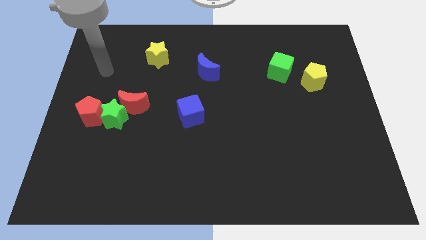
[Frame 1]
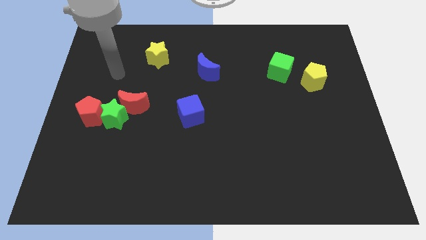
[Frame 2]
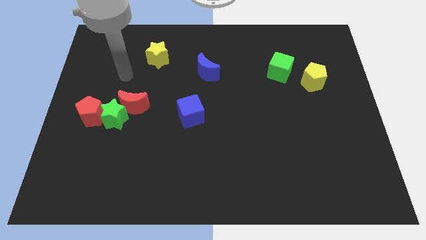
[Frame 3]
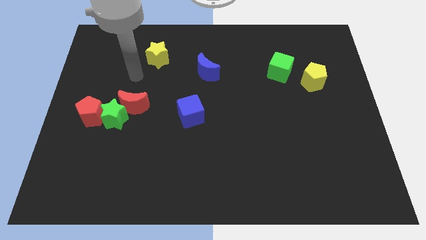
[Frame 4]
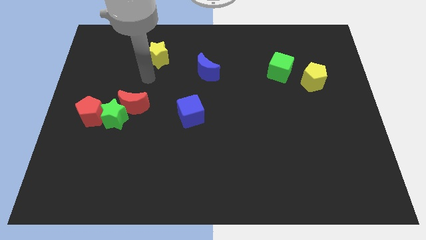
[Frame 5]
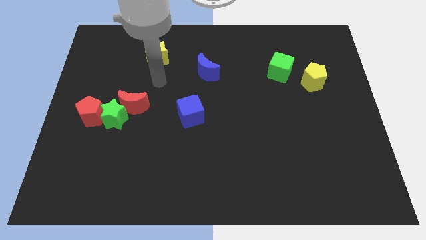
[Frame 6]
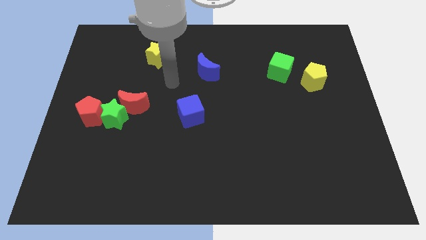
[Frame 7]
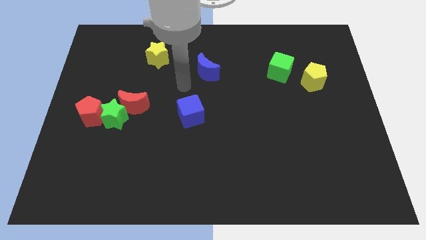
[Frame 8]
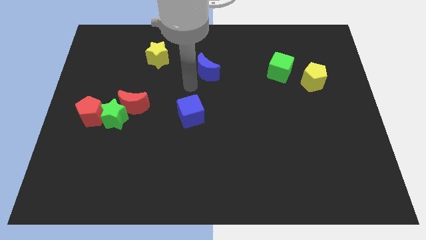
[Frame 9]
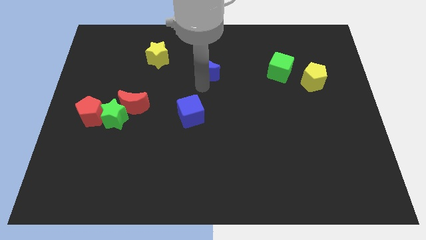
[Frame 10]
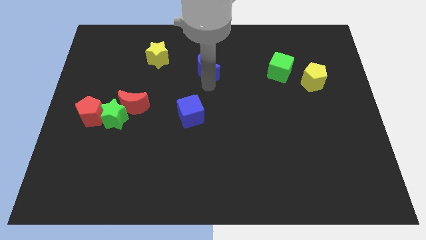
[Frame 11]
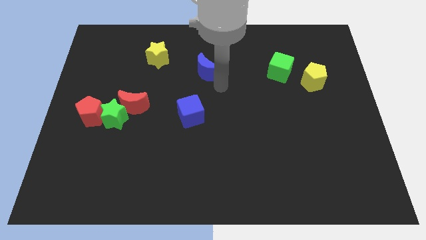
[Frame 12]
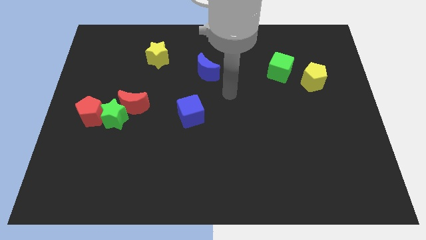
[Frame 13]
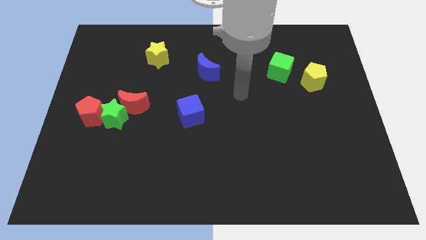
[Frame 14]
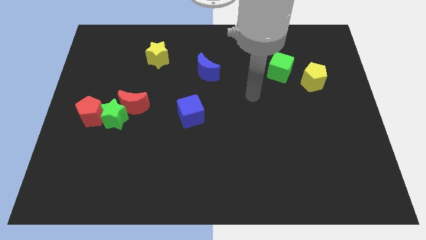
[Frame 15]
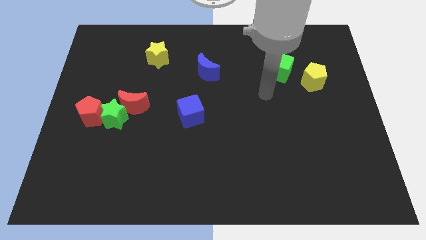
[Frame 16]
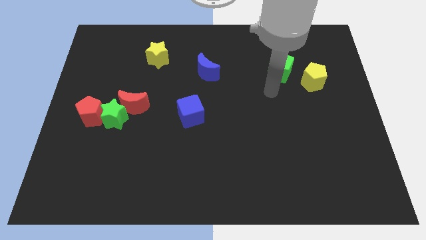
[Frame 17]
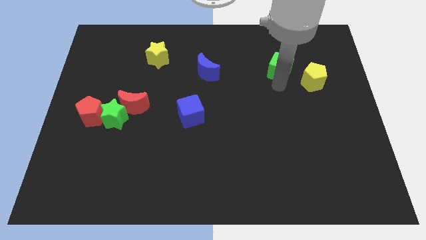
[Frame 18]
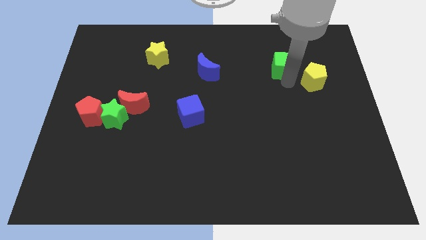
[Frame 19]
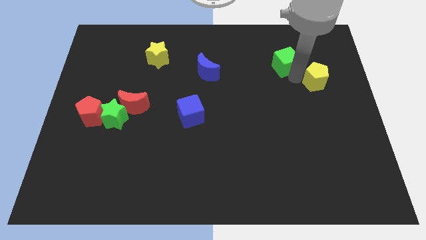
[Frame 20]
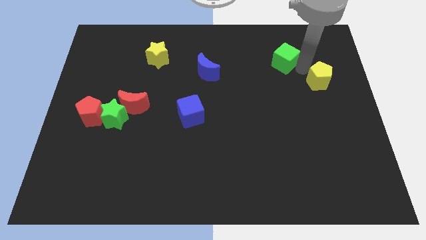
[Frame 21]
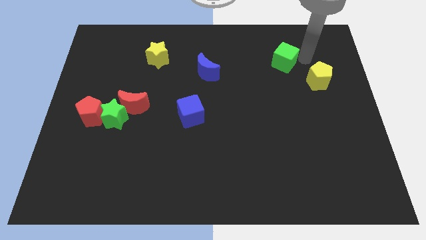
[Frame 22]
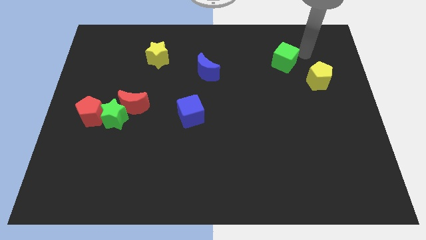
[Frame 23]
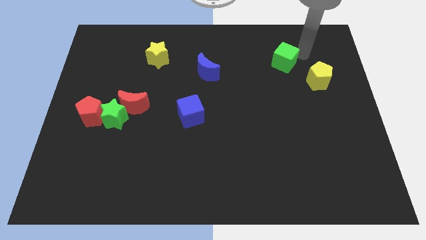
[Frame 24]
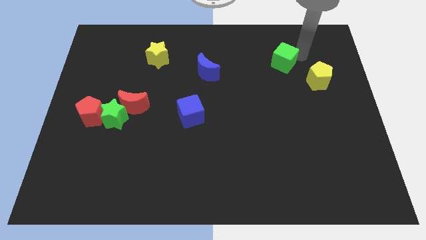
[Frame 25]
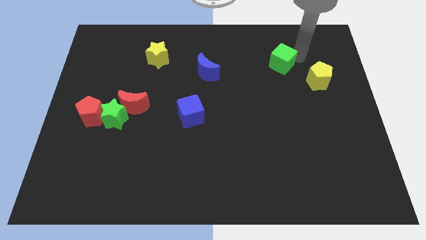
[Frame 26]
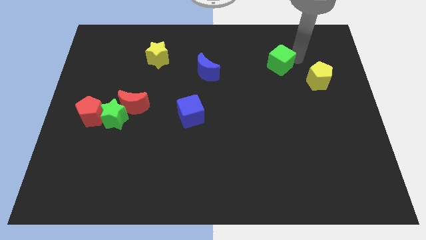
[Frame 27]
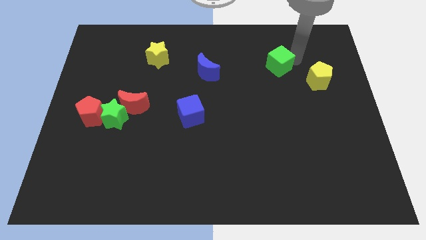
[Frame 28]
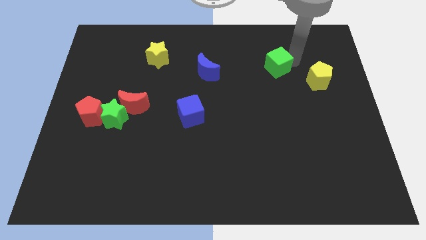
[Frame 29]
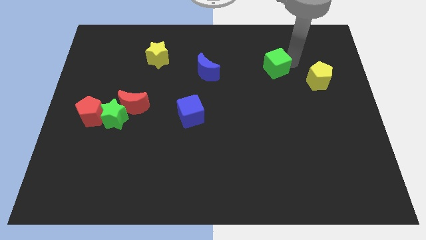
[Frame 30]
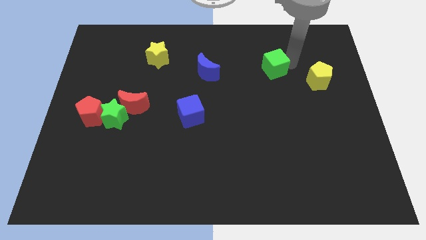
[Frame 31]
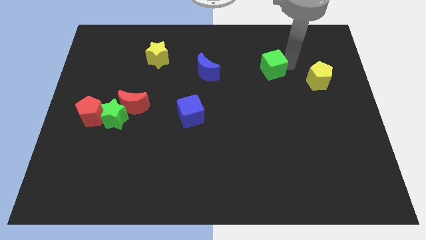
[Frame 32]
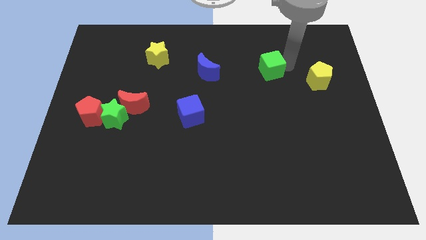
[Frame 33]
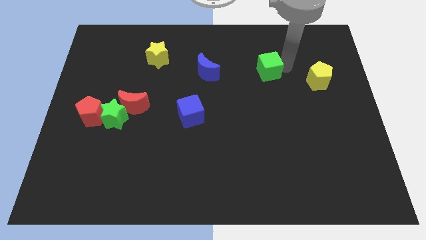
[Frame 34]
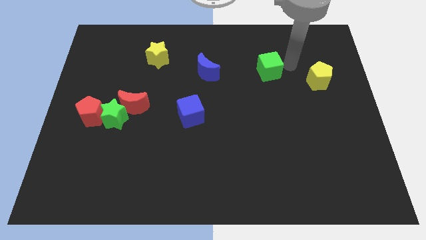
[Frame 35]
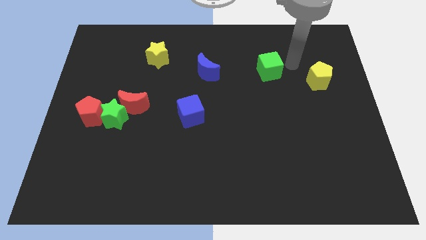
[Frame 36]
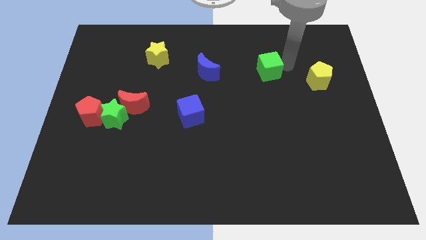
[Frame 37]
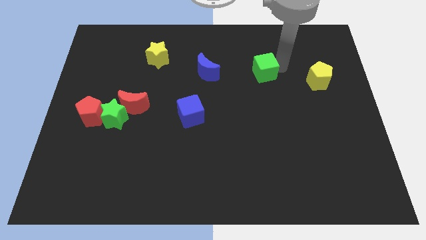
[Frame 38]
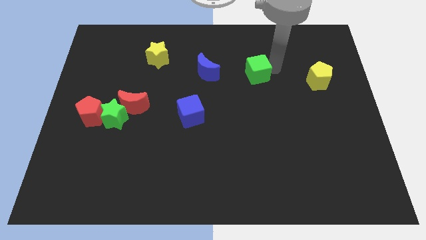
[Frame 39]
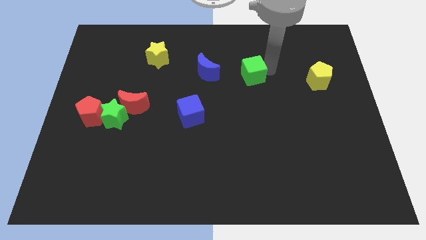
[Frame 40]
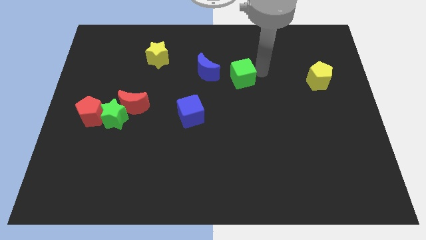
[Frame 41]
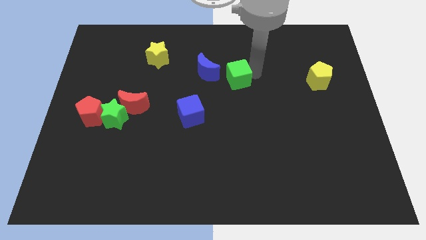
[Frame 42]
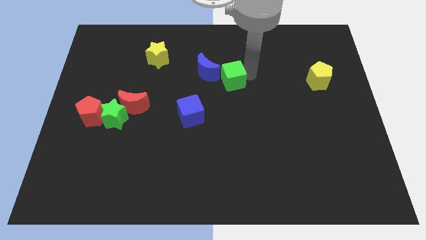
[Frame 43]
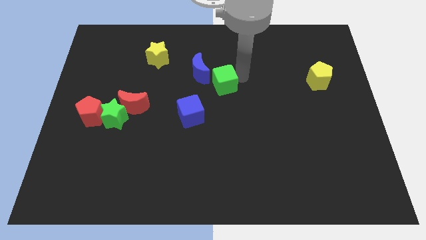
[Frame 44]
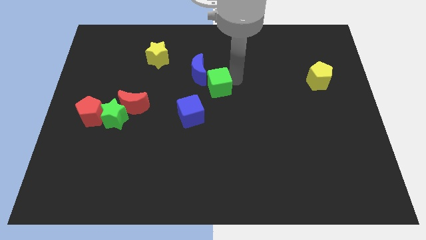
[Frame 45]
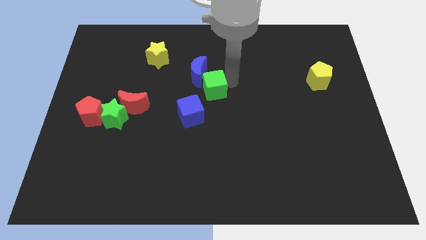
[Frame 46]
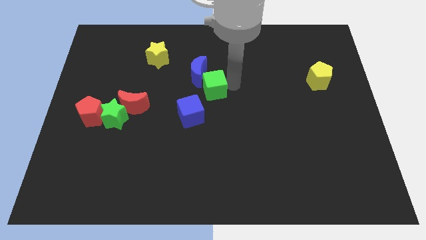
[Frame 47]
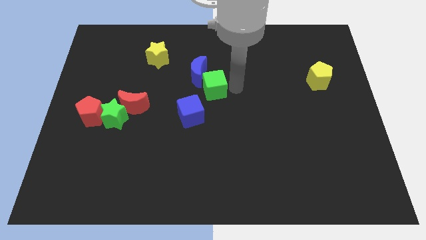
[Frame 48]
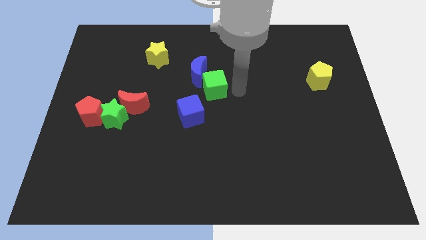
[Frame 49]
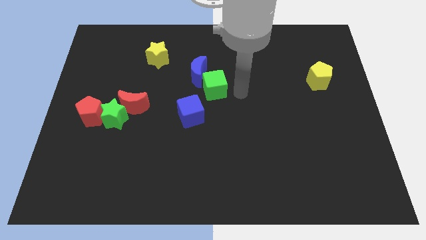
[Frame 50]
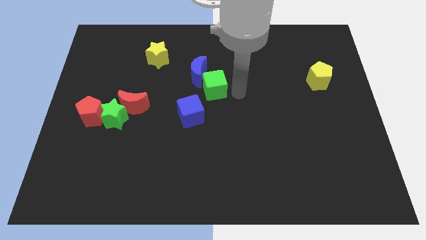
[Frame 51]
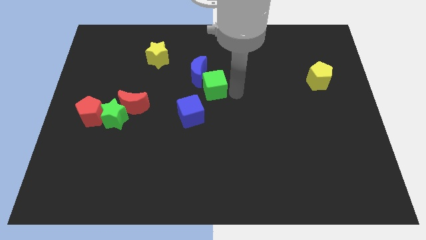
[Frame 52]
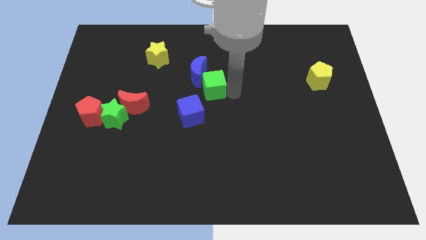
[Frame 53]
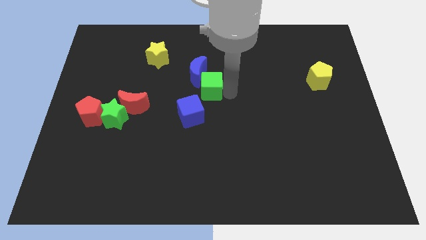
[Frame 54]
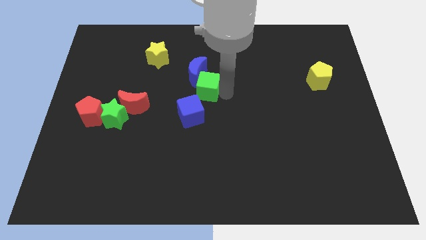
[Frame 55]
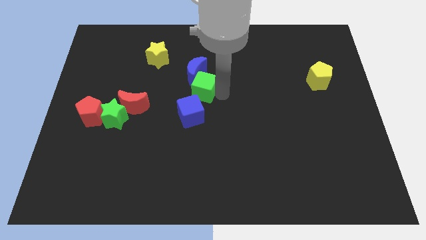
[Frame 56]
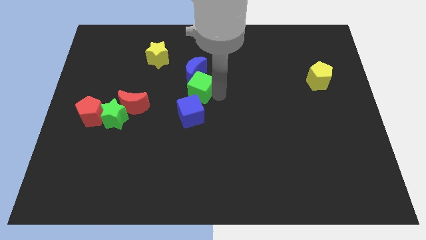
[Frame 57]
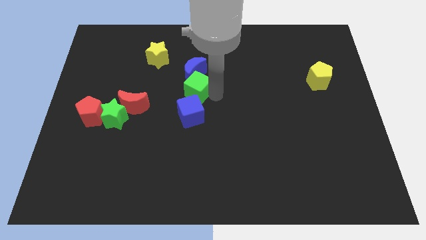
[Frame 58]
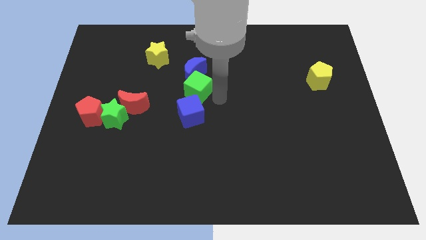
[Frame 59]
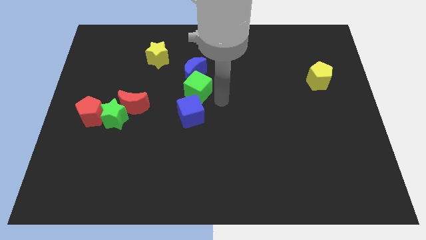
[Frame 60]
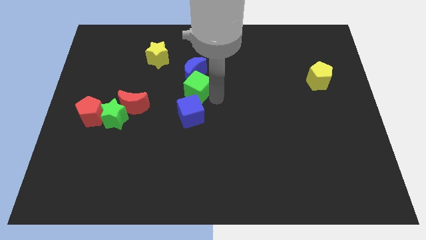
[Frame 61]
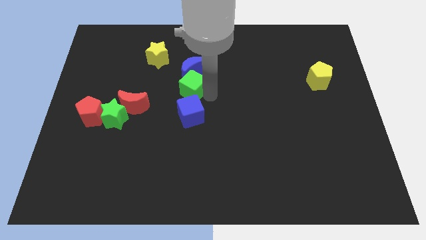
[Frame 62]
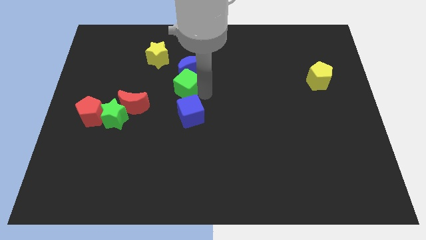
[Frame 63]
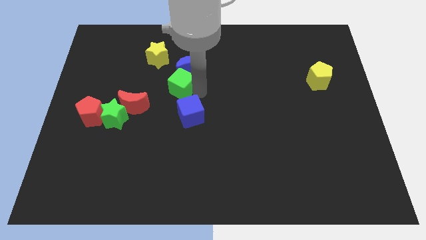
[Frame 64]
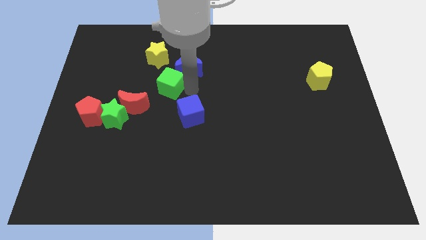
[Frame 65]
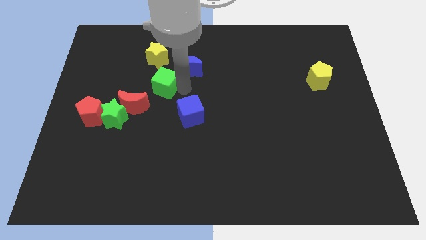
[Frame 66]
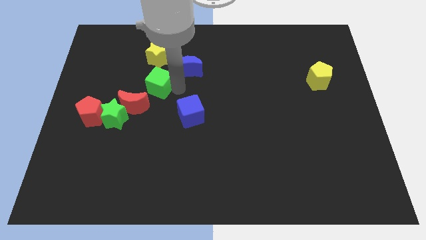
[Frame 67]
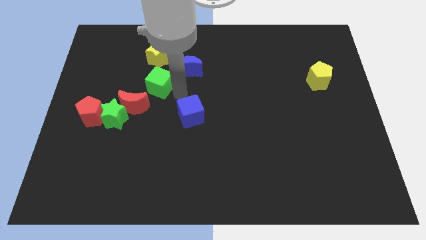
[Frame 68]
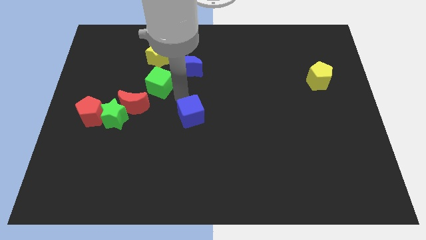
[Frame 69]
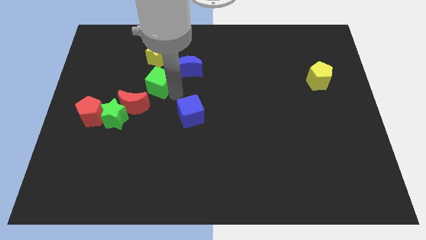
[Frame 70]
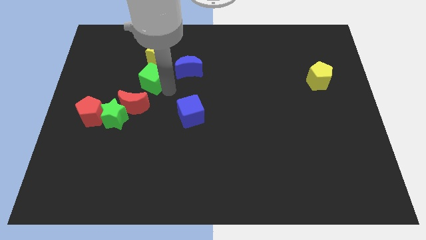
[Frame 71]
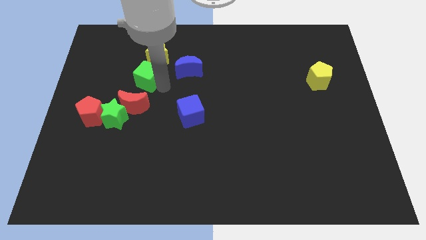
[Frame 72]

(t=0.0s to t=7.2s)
slide the green cube to the bottom left side of the yellow star
